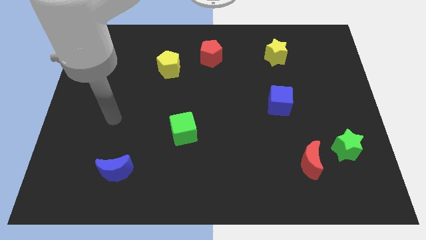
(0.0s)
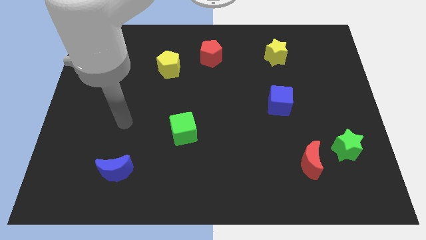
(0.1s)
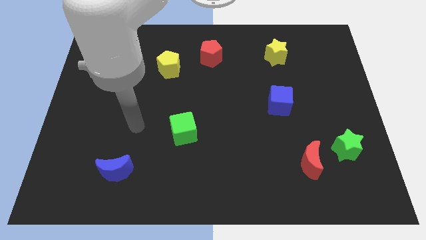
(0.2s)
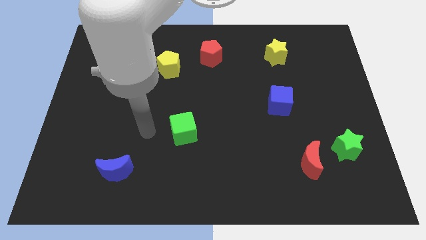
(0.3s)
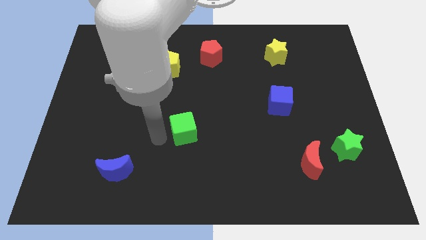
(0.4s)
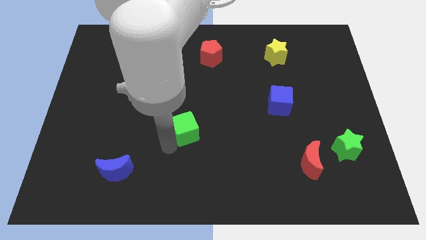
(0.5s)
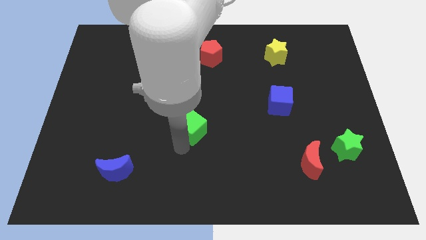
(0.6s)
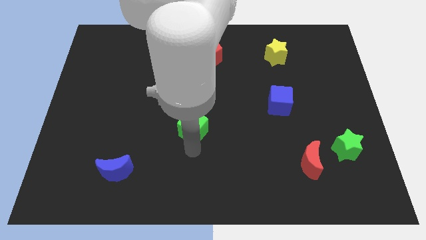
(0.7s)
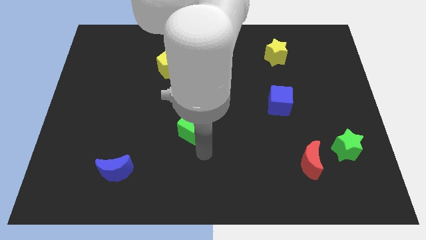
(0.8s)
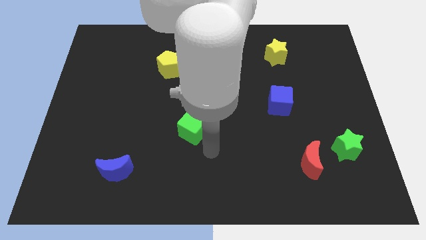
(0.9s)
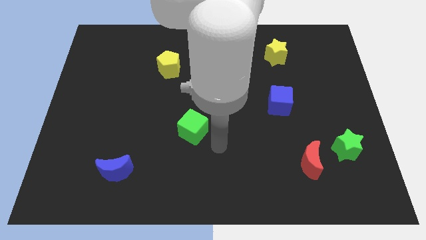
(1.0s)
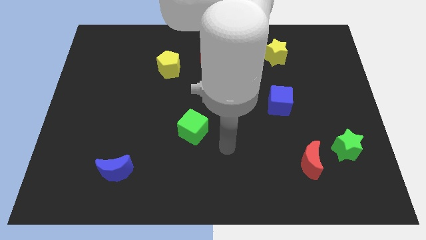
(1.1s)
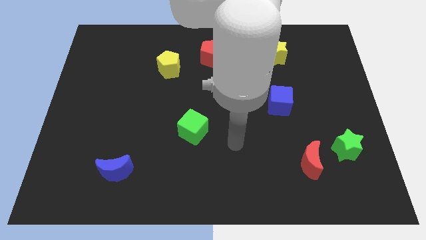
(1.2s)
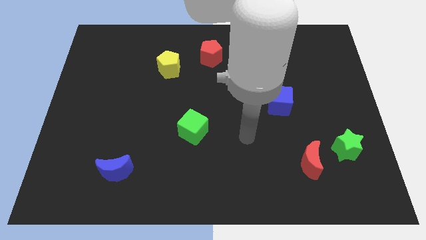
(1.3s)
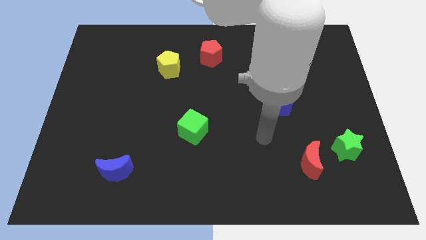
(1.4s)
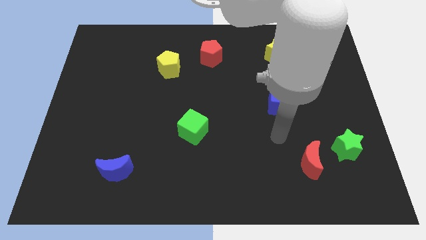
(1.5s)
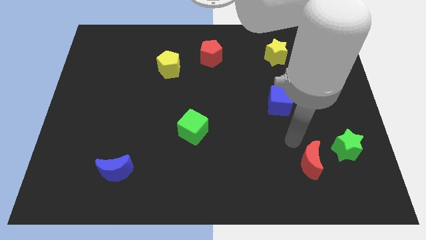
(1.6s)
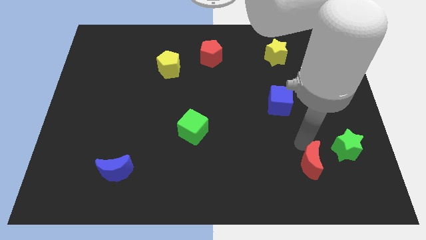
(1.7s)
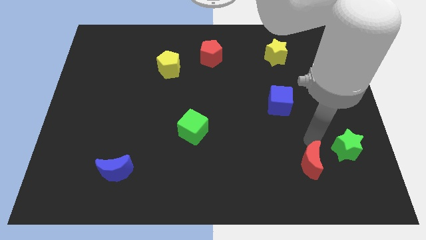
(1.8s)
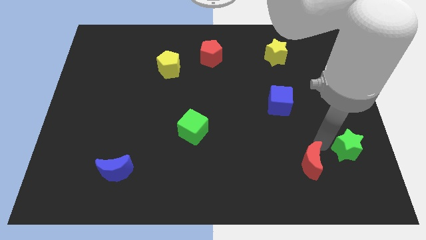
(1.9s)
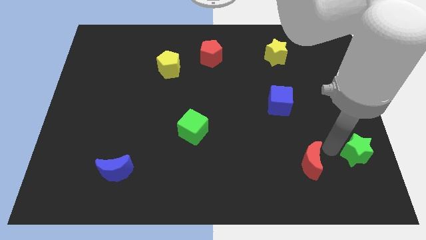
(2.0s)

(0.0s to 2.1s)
separate the red moon from the green star

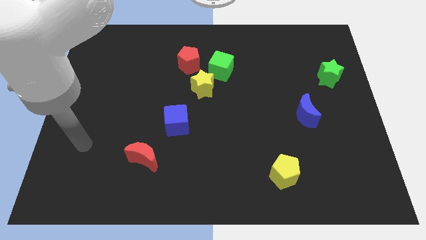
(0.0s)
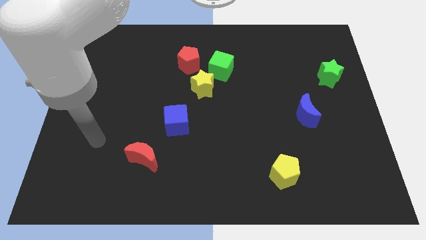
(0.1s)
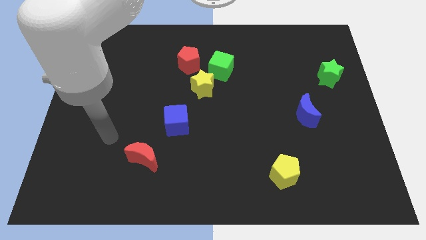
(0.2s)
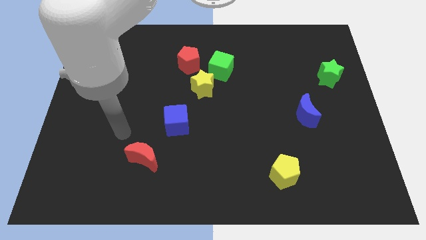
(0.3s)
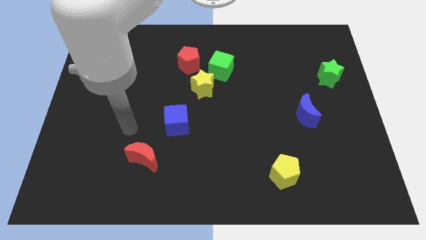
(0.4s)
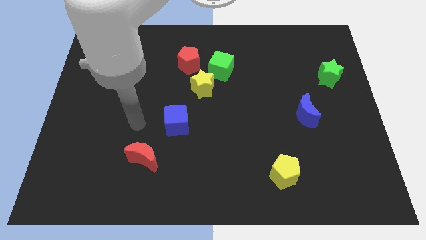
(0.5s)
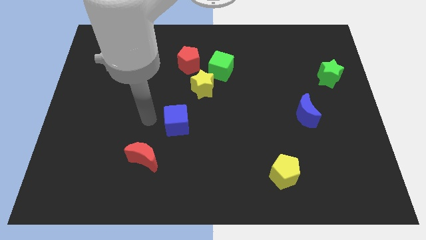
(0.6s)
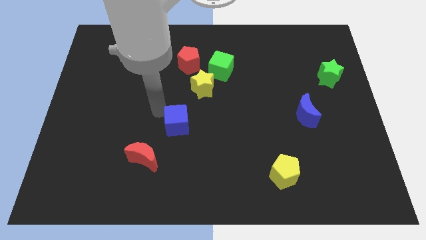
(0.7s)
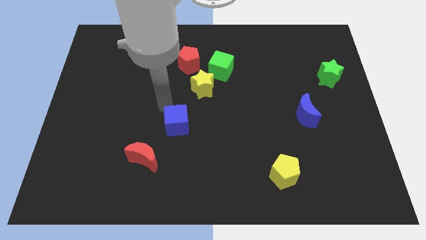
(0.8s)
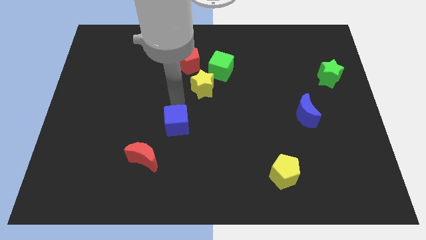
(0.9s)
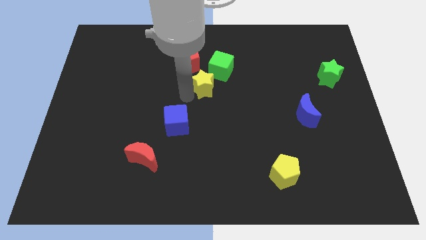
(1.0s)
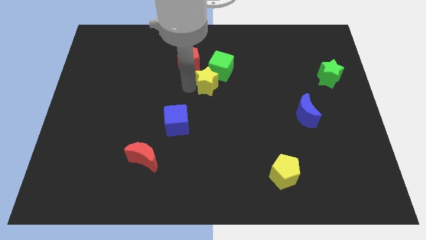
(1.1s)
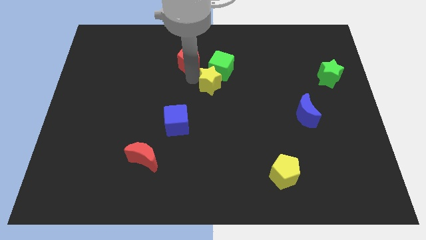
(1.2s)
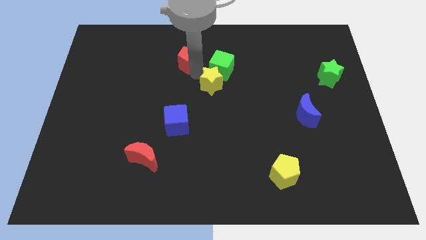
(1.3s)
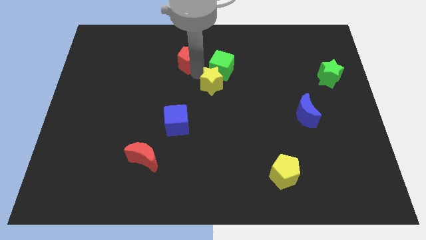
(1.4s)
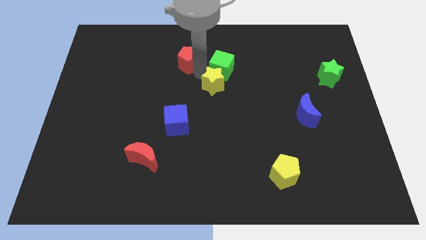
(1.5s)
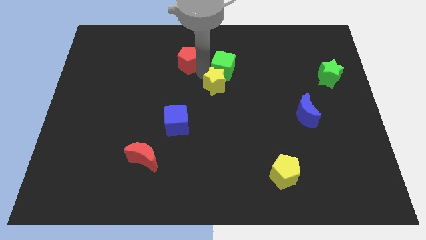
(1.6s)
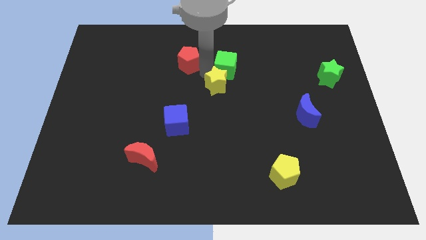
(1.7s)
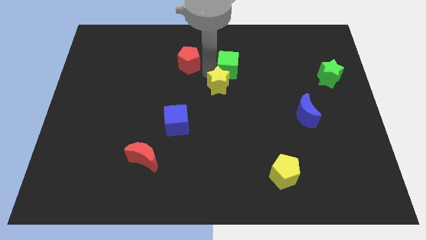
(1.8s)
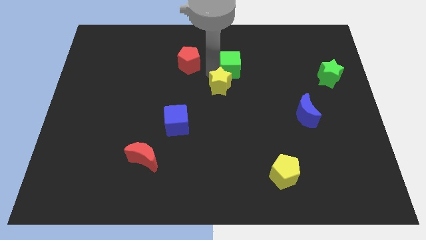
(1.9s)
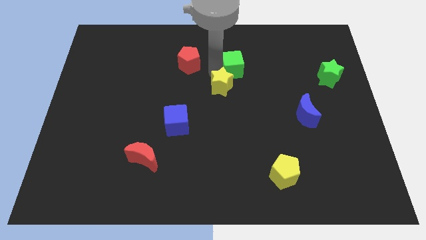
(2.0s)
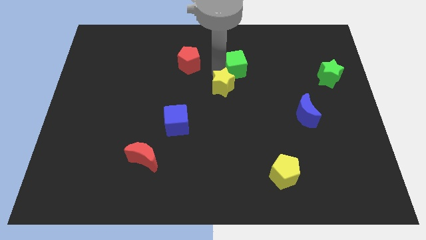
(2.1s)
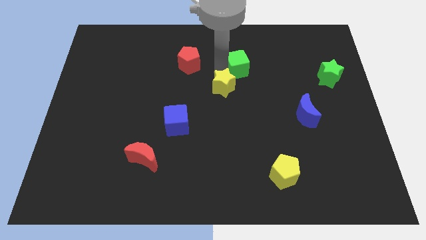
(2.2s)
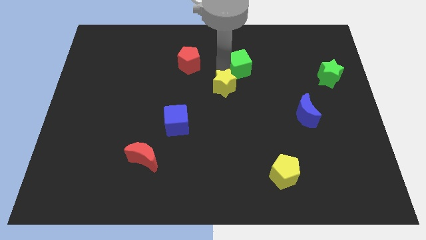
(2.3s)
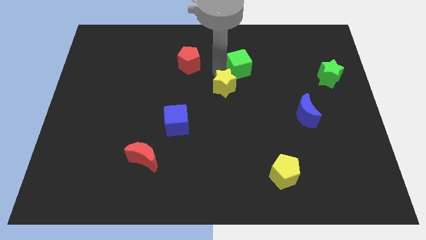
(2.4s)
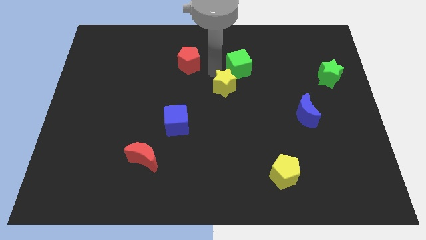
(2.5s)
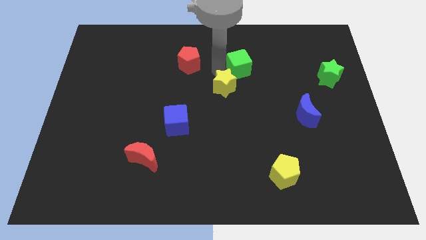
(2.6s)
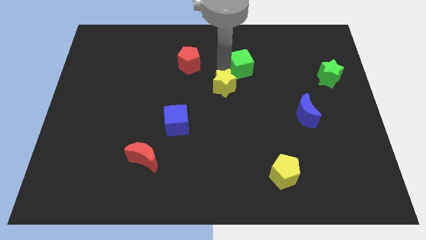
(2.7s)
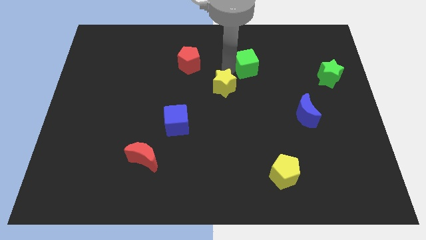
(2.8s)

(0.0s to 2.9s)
separate the green cube from the yellow star and red pentagon

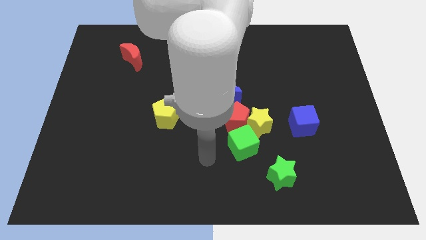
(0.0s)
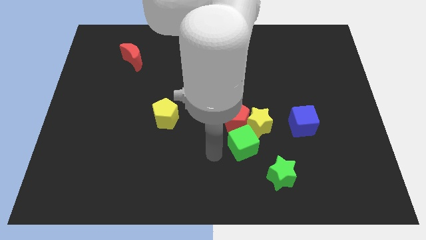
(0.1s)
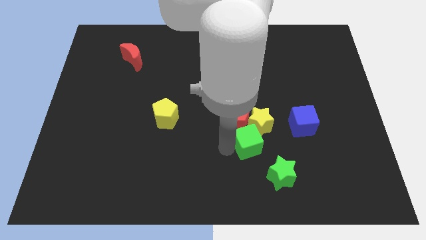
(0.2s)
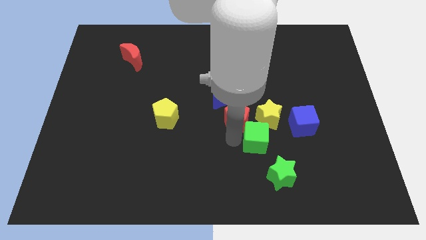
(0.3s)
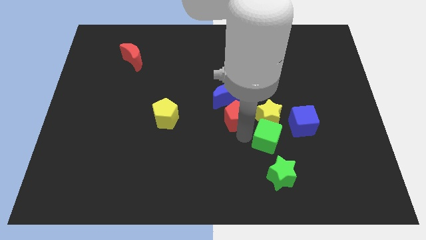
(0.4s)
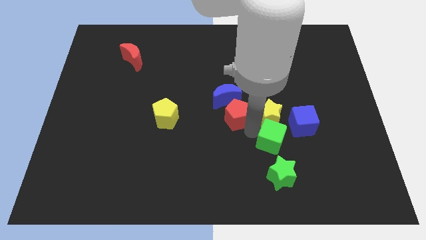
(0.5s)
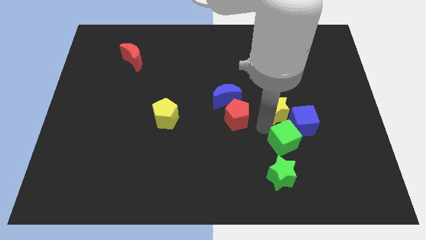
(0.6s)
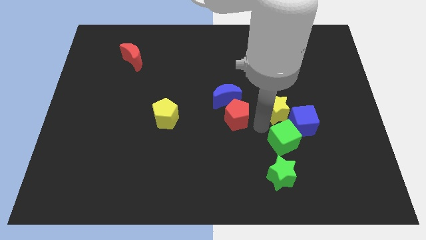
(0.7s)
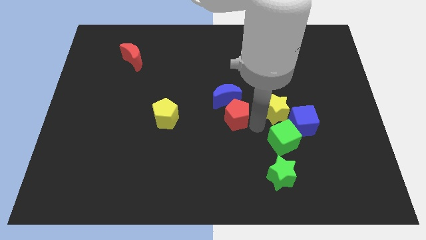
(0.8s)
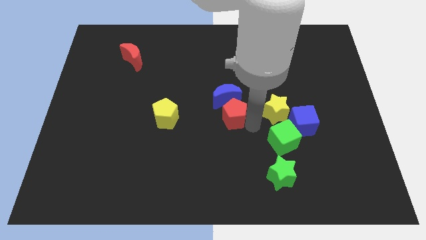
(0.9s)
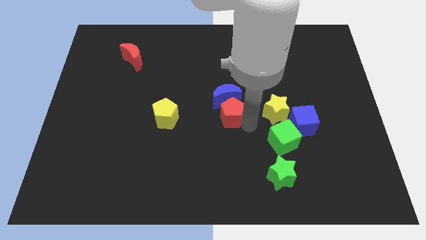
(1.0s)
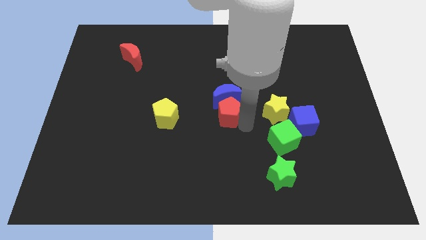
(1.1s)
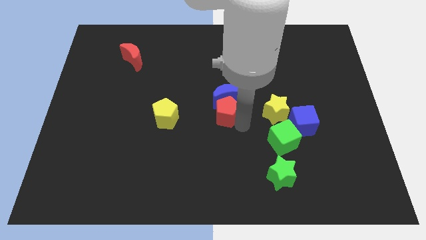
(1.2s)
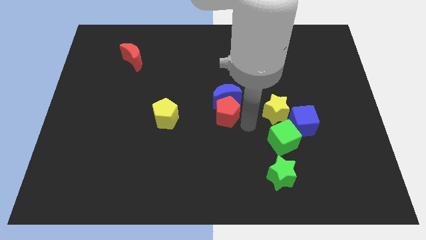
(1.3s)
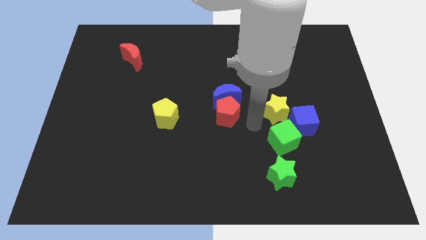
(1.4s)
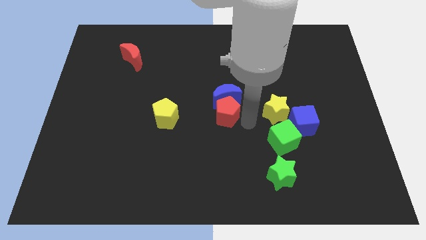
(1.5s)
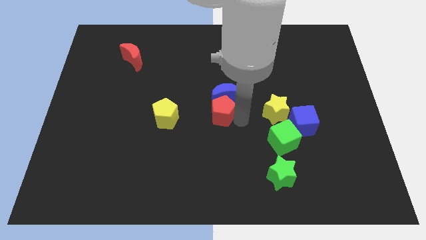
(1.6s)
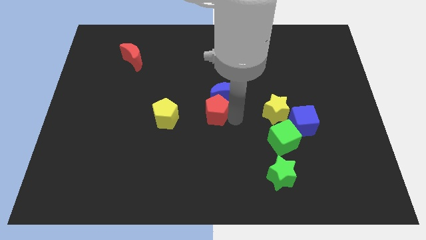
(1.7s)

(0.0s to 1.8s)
move the red pentagon away from the yellow star, green cube, and blue moon

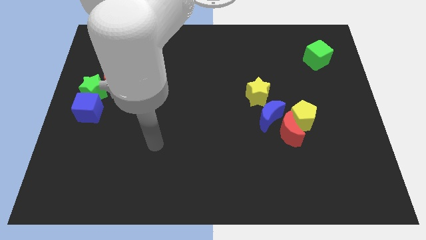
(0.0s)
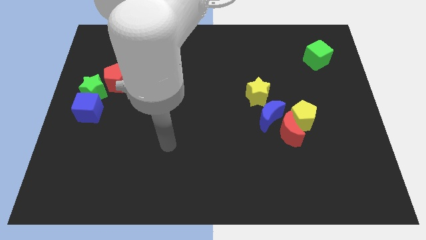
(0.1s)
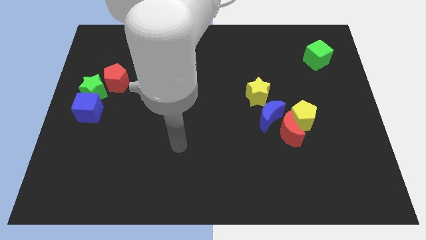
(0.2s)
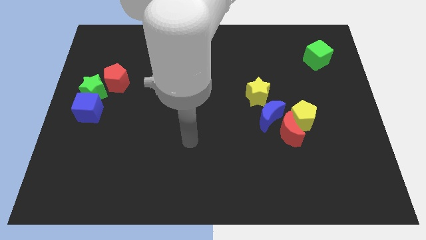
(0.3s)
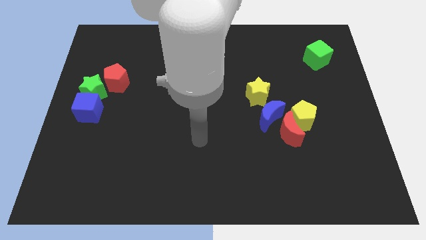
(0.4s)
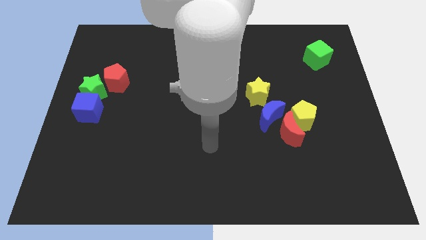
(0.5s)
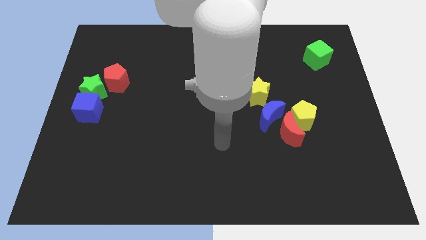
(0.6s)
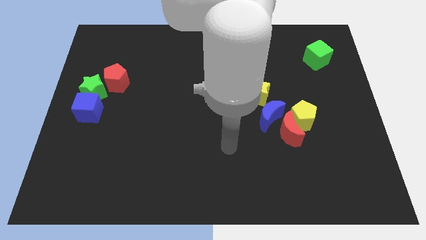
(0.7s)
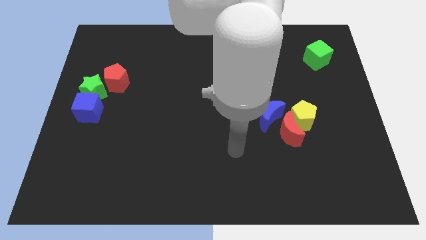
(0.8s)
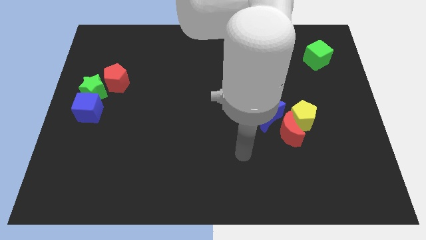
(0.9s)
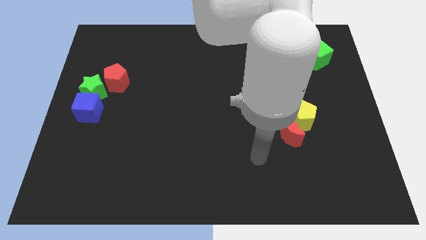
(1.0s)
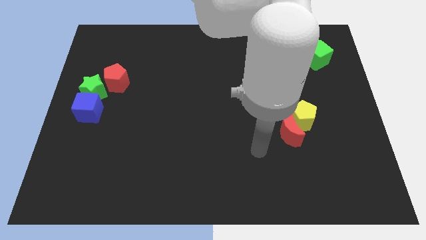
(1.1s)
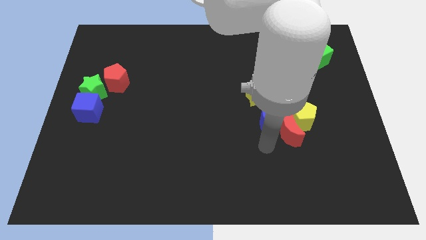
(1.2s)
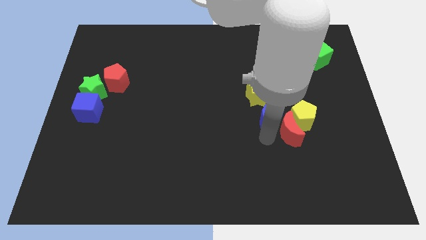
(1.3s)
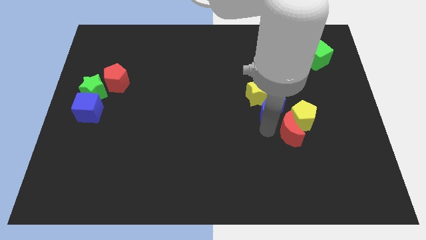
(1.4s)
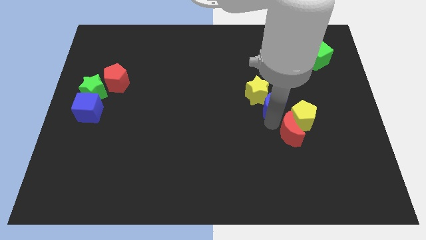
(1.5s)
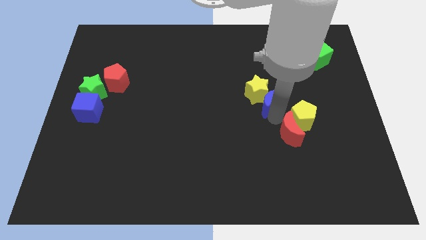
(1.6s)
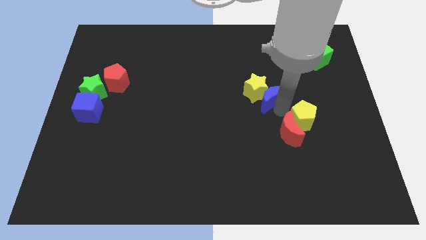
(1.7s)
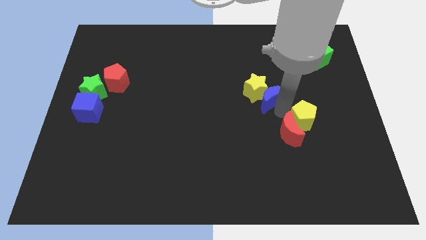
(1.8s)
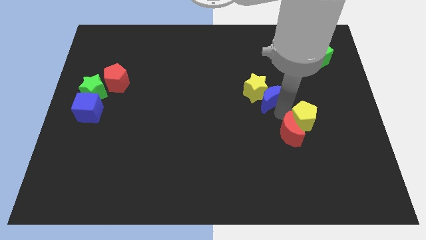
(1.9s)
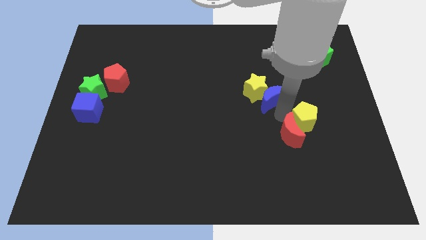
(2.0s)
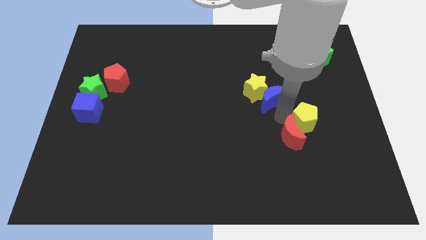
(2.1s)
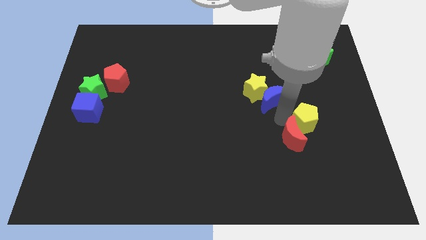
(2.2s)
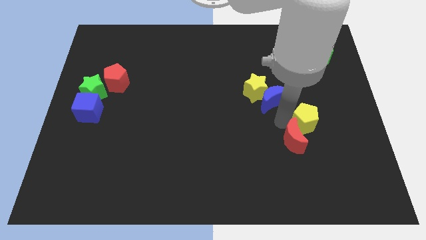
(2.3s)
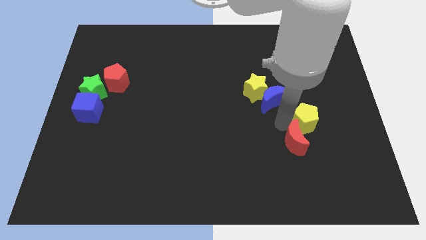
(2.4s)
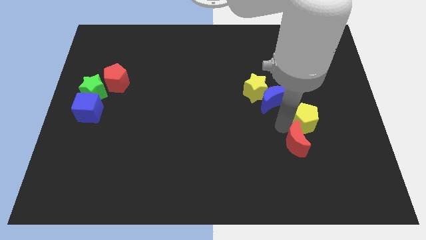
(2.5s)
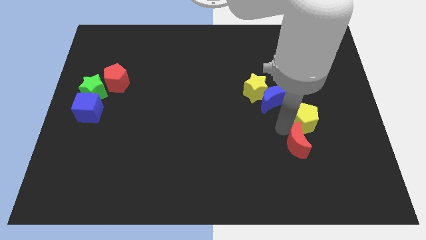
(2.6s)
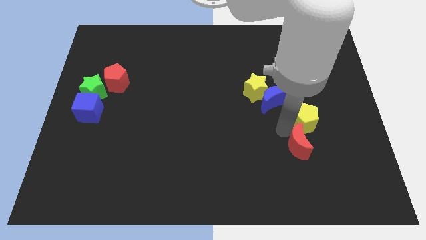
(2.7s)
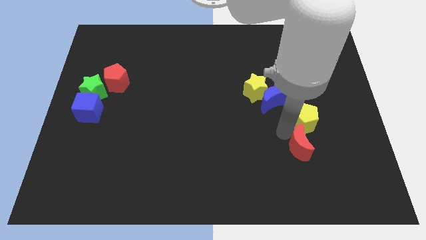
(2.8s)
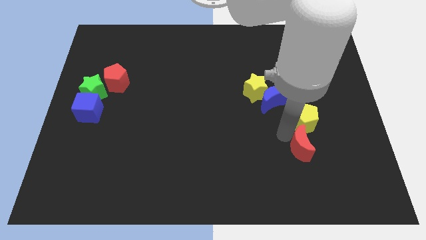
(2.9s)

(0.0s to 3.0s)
separate the red moon from the yellow pentagon and blue moon
